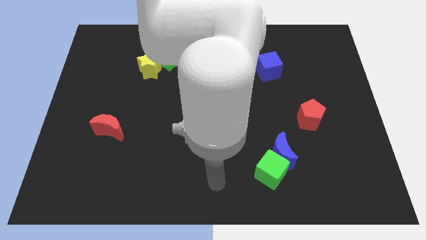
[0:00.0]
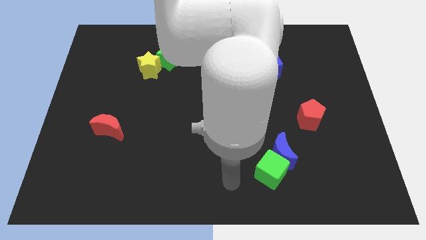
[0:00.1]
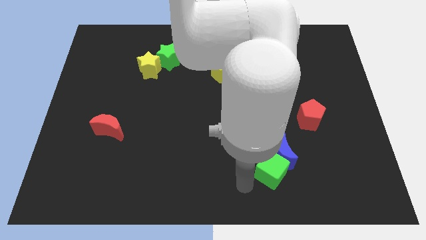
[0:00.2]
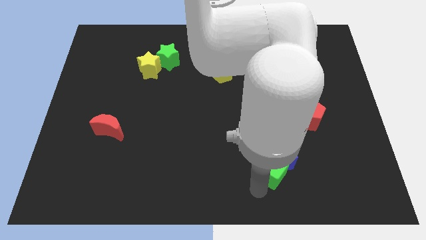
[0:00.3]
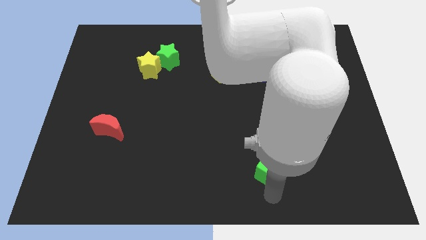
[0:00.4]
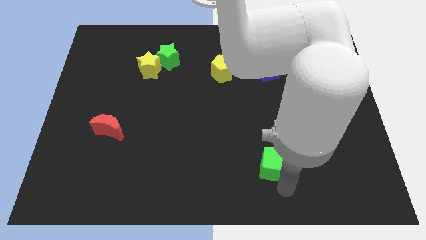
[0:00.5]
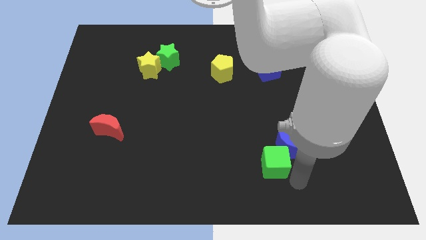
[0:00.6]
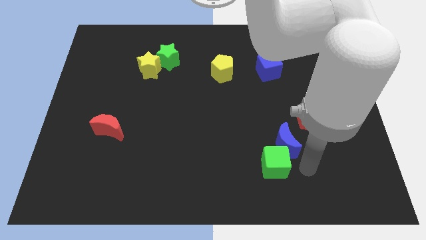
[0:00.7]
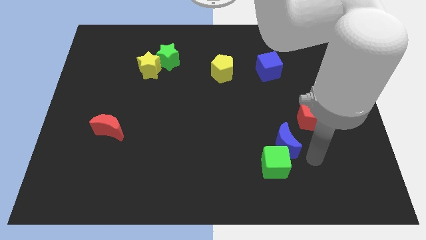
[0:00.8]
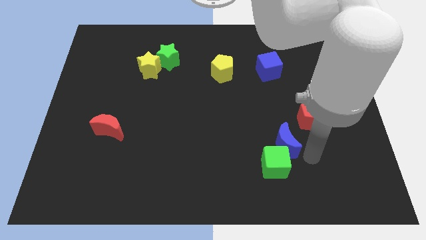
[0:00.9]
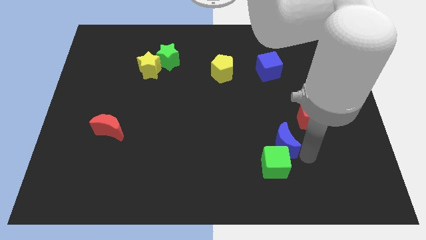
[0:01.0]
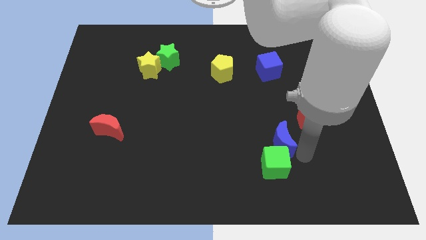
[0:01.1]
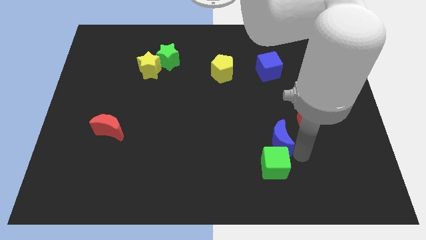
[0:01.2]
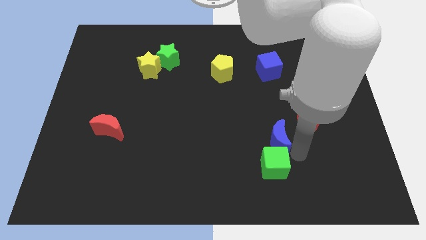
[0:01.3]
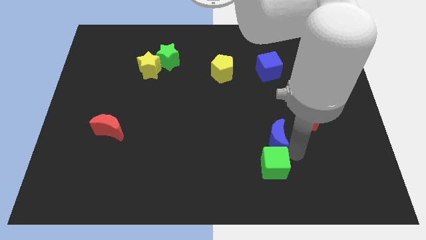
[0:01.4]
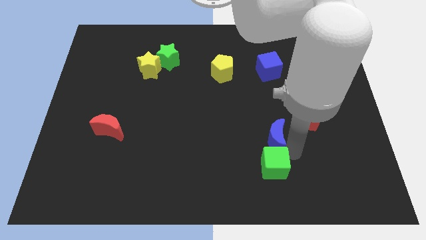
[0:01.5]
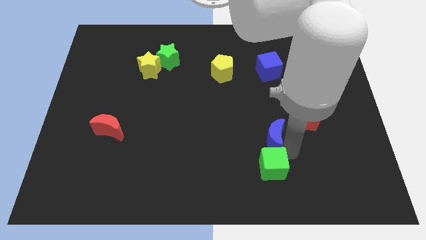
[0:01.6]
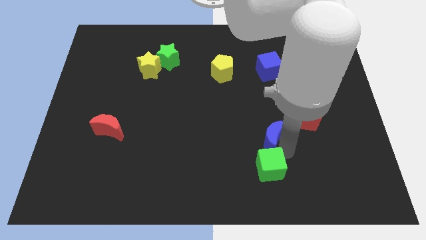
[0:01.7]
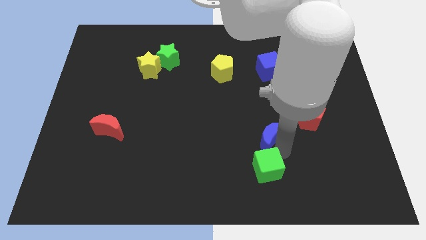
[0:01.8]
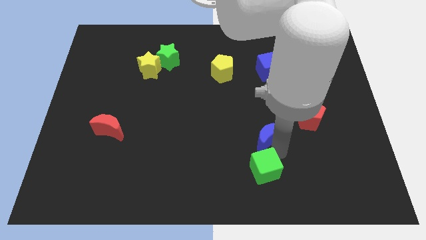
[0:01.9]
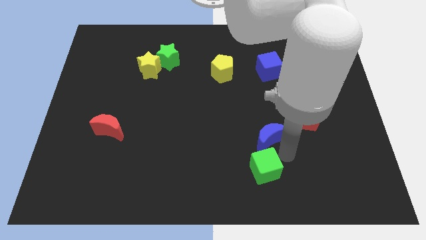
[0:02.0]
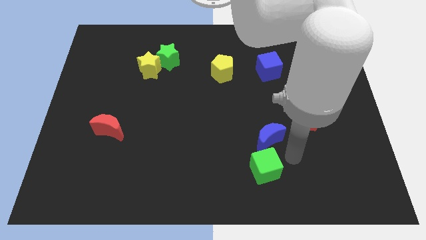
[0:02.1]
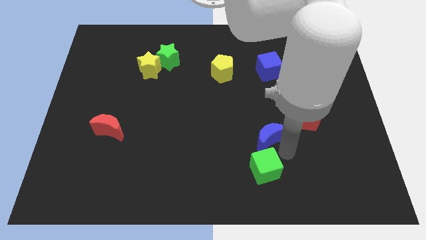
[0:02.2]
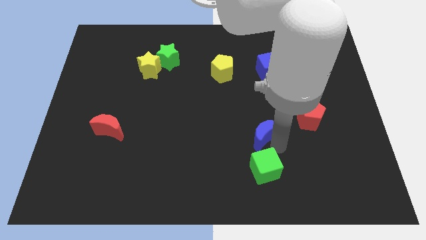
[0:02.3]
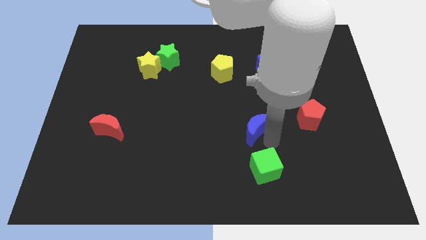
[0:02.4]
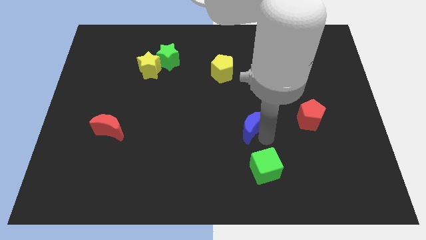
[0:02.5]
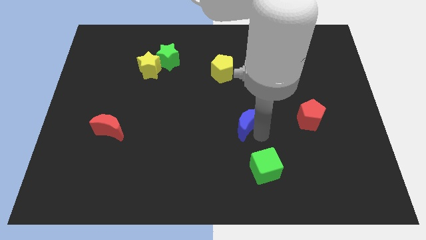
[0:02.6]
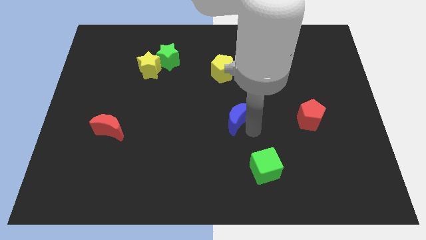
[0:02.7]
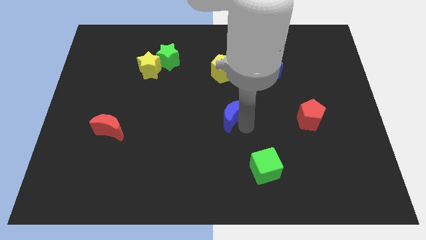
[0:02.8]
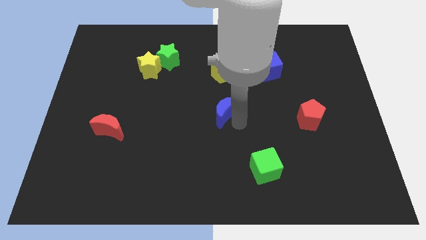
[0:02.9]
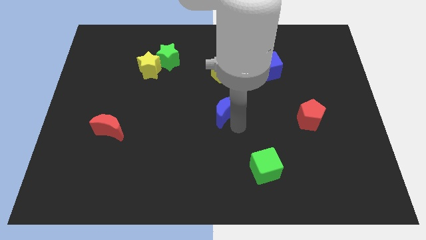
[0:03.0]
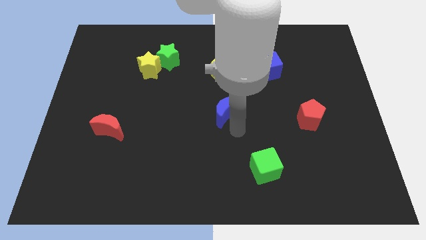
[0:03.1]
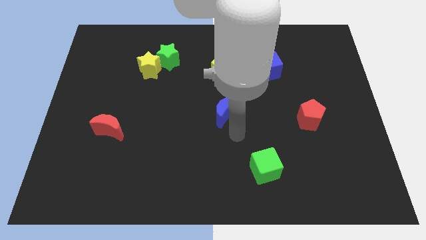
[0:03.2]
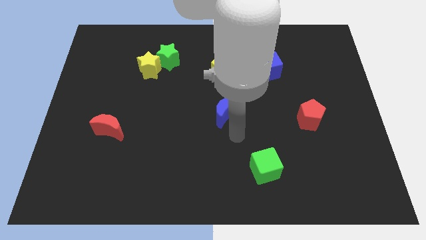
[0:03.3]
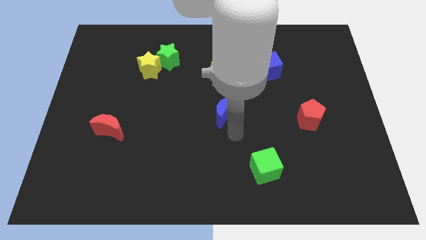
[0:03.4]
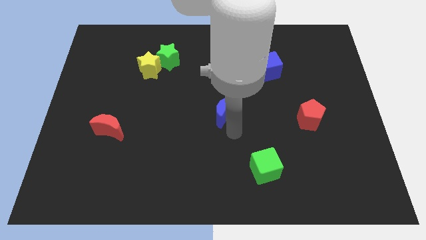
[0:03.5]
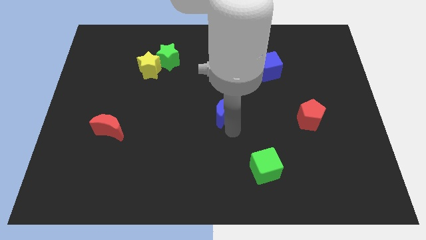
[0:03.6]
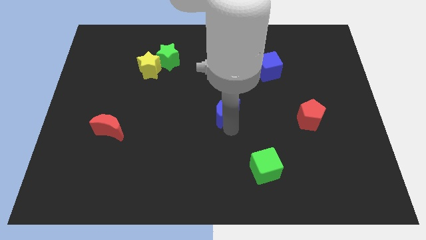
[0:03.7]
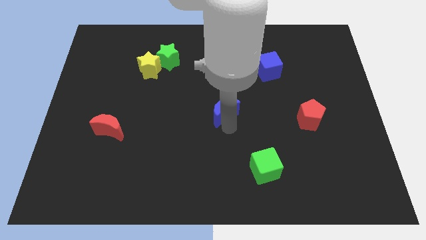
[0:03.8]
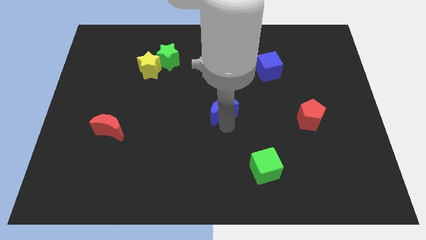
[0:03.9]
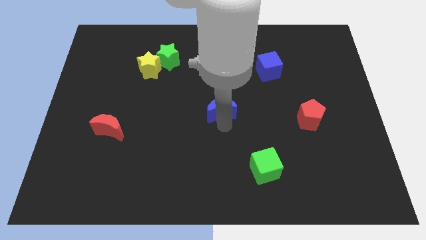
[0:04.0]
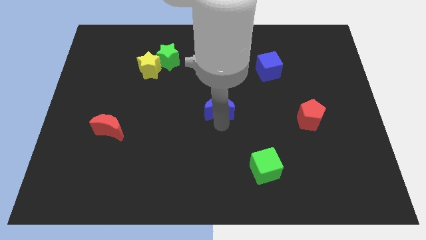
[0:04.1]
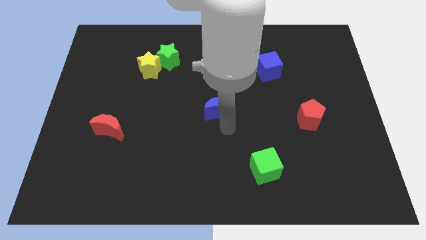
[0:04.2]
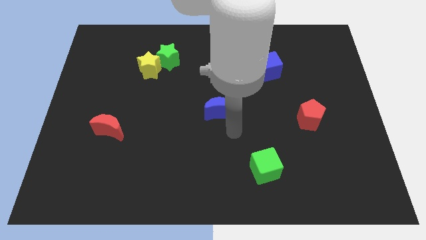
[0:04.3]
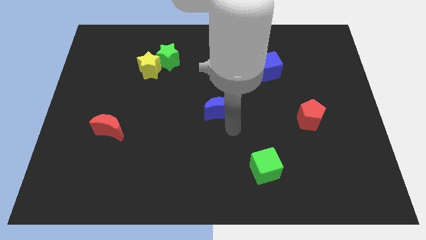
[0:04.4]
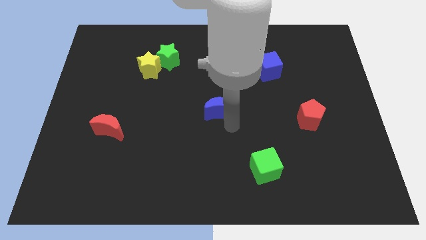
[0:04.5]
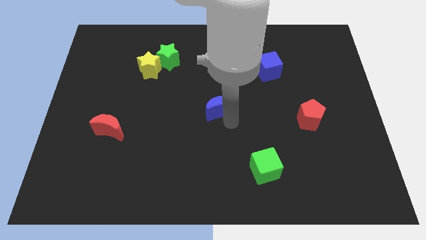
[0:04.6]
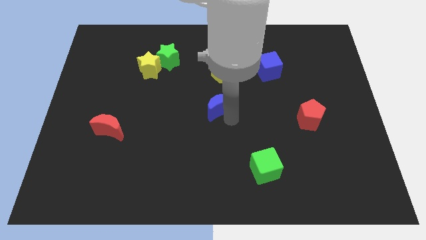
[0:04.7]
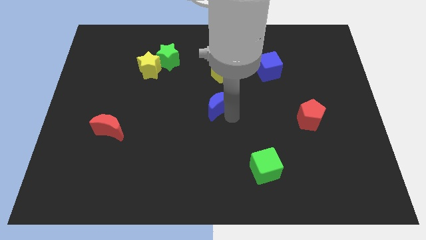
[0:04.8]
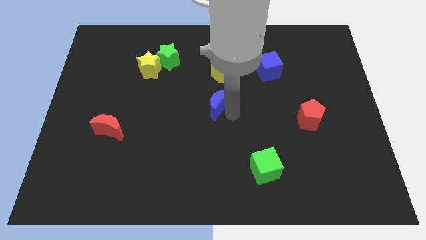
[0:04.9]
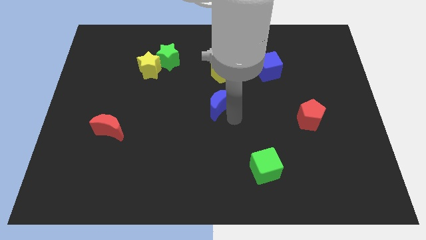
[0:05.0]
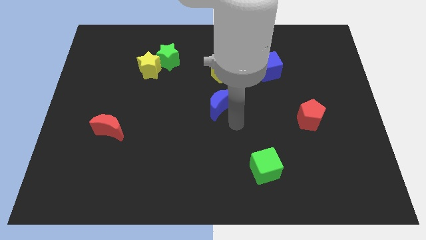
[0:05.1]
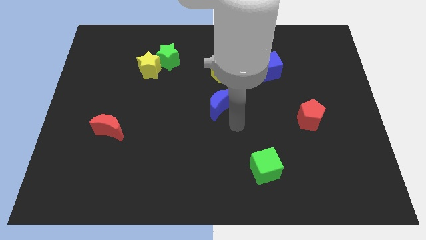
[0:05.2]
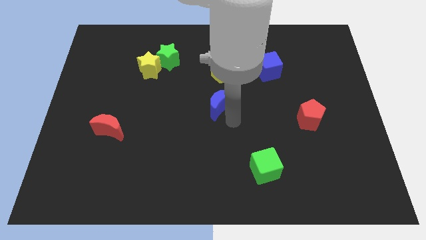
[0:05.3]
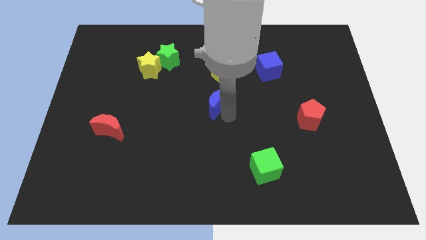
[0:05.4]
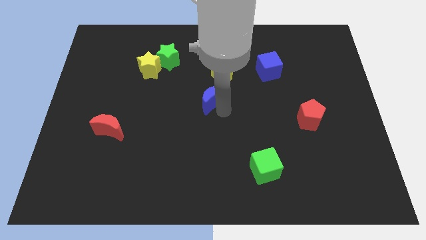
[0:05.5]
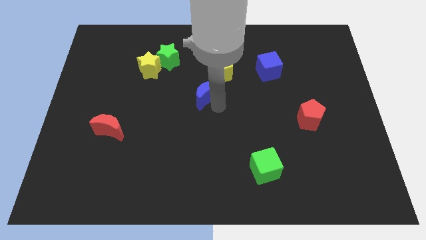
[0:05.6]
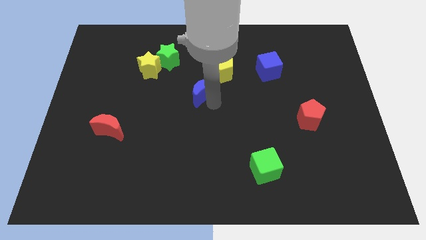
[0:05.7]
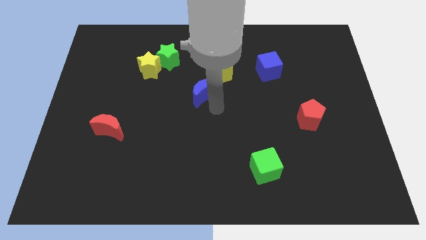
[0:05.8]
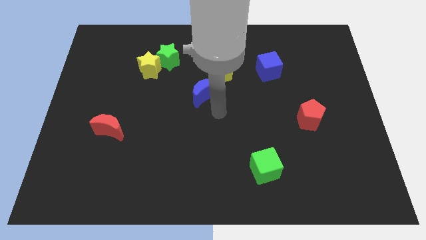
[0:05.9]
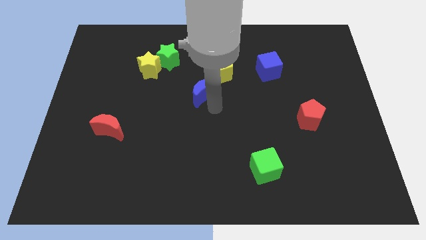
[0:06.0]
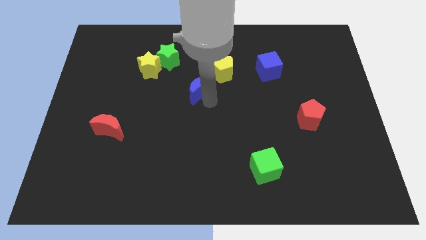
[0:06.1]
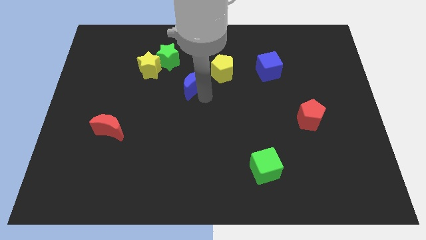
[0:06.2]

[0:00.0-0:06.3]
slide the blue moon diagonally down and to the right of the green star

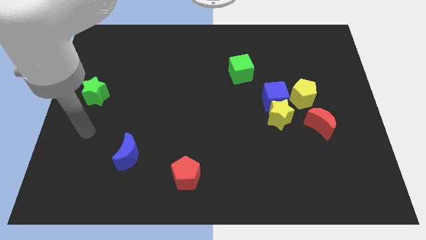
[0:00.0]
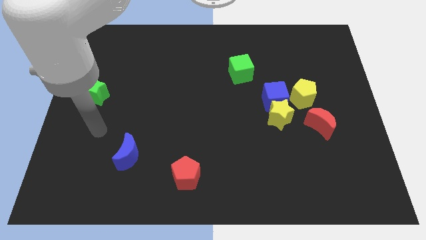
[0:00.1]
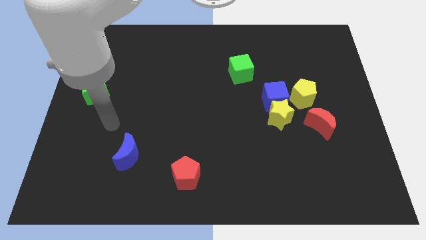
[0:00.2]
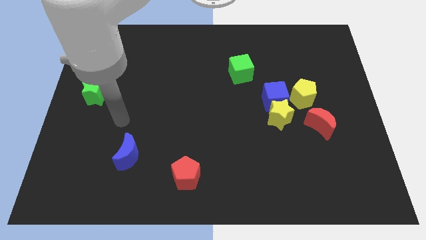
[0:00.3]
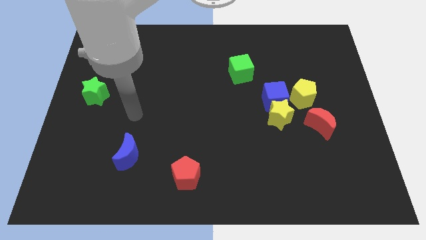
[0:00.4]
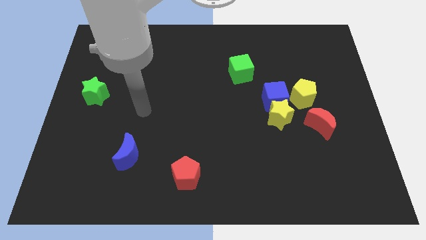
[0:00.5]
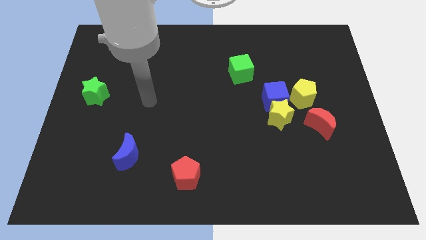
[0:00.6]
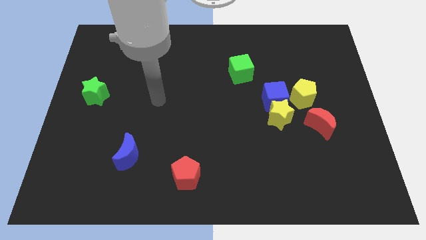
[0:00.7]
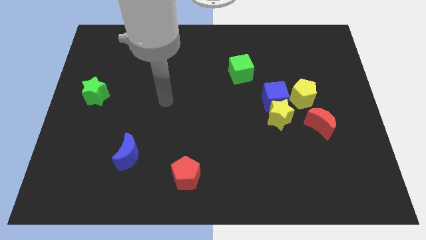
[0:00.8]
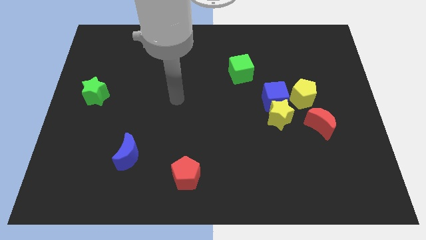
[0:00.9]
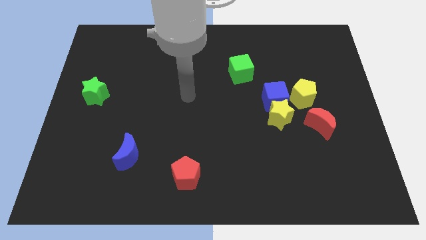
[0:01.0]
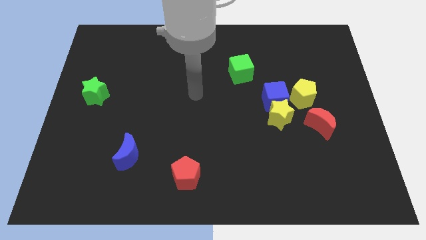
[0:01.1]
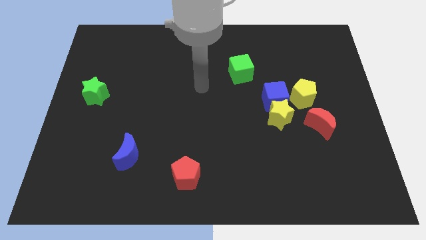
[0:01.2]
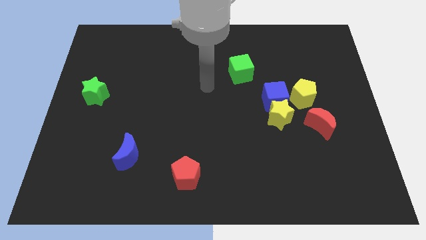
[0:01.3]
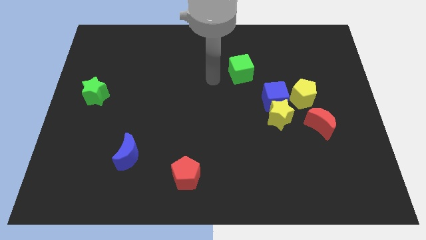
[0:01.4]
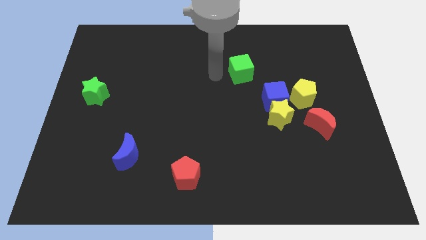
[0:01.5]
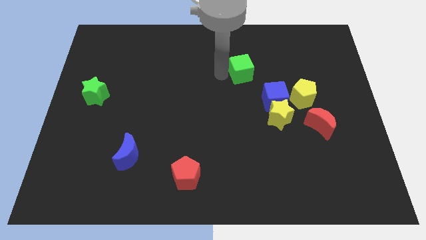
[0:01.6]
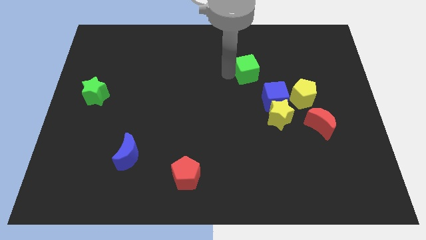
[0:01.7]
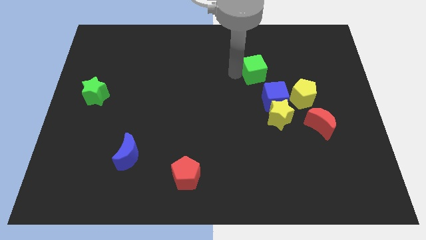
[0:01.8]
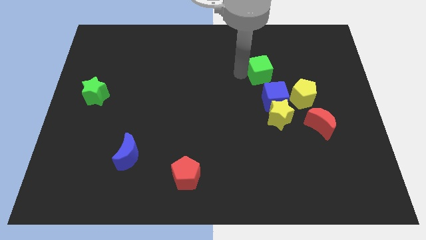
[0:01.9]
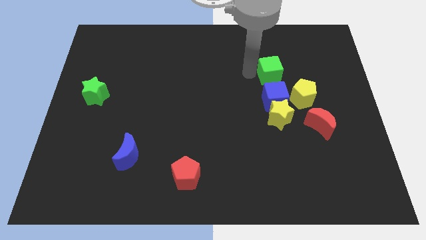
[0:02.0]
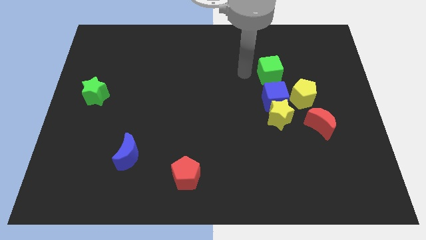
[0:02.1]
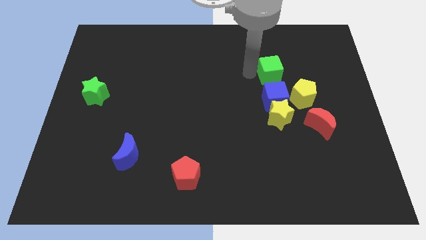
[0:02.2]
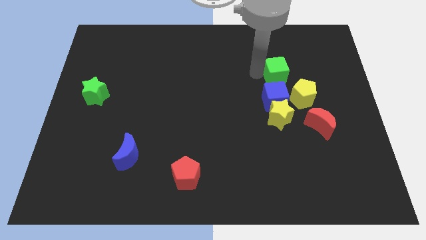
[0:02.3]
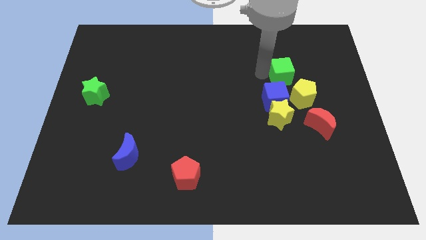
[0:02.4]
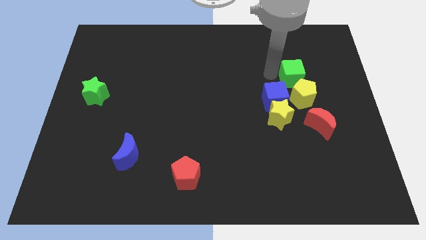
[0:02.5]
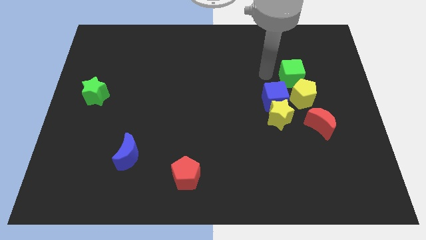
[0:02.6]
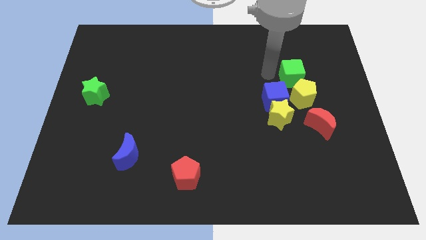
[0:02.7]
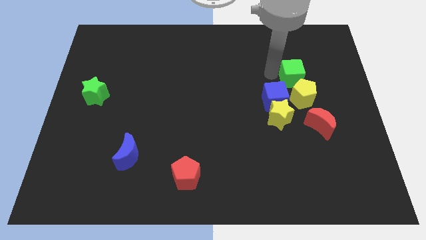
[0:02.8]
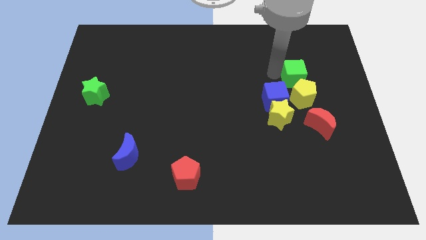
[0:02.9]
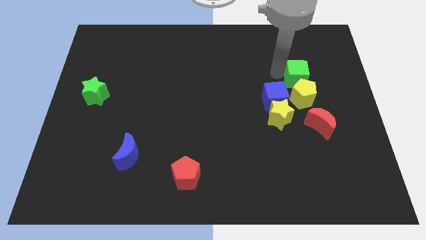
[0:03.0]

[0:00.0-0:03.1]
put the green cube above the red moon
